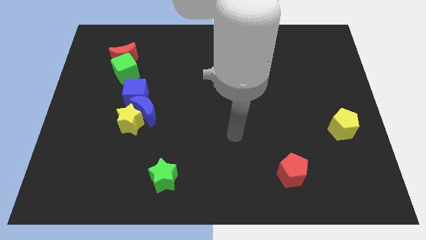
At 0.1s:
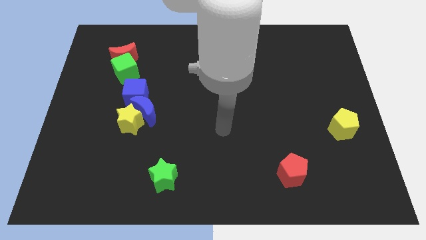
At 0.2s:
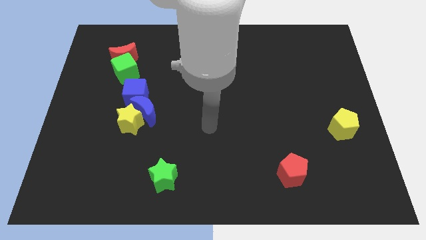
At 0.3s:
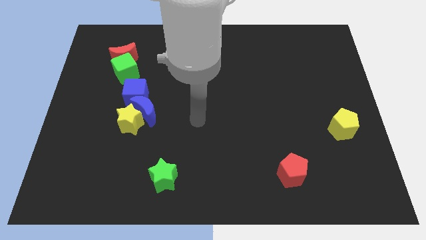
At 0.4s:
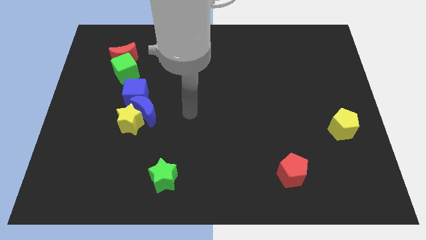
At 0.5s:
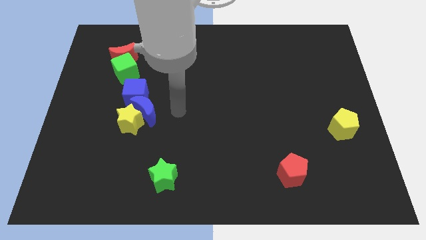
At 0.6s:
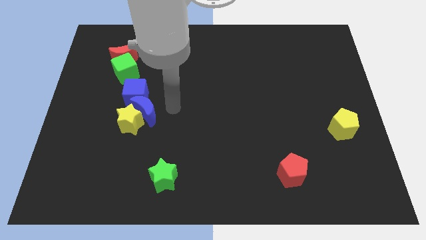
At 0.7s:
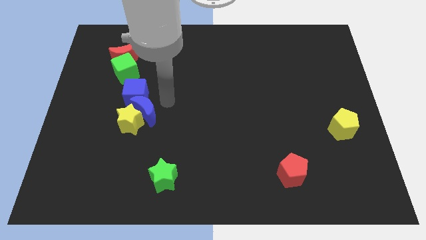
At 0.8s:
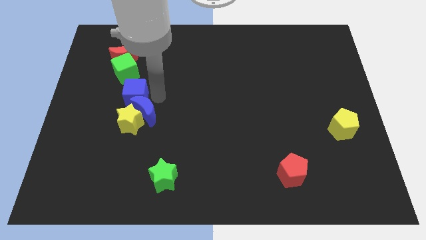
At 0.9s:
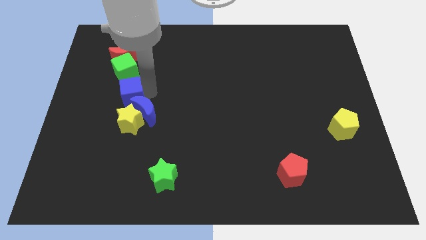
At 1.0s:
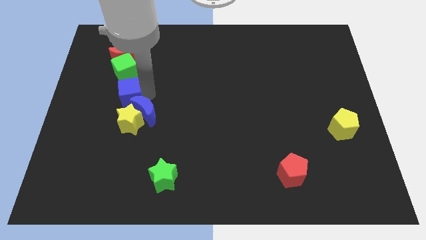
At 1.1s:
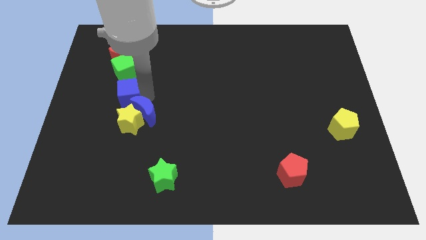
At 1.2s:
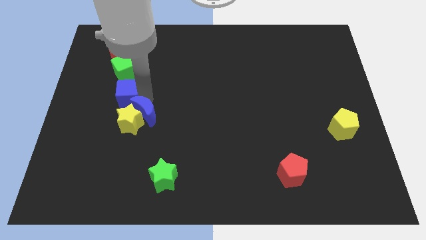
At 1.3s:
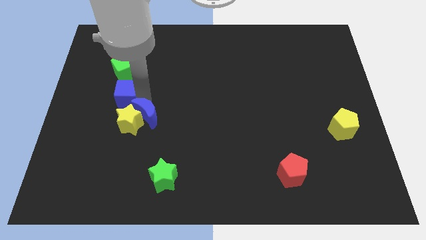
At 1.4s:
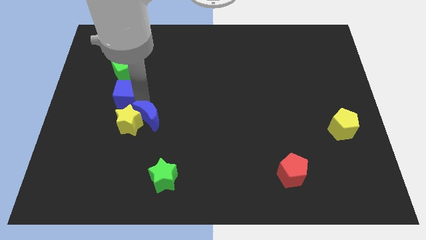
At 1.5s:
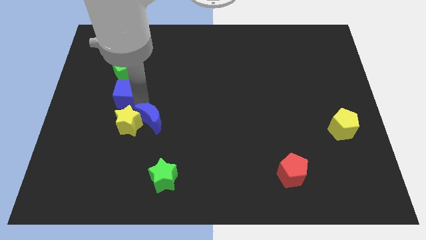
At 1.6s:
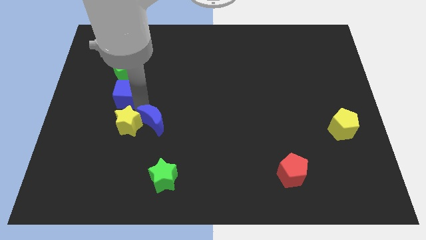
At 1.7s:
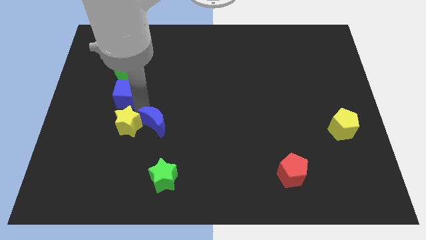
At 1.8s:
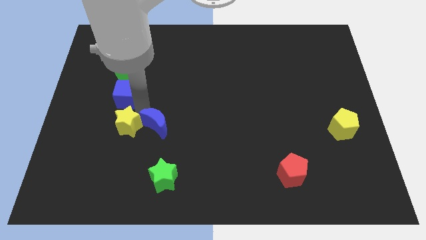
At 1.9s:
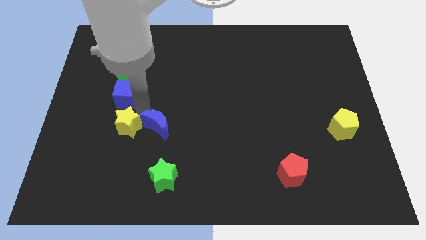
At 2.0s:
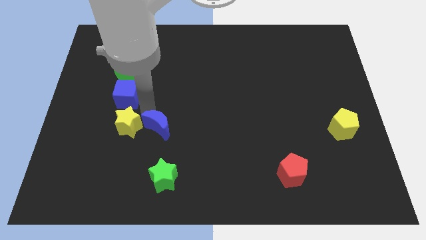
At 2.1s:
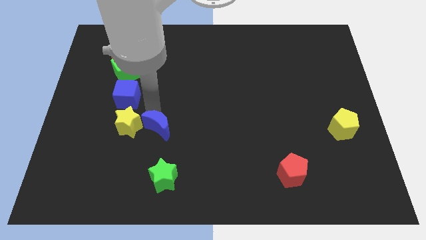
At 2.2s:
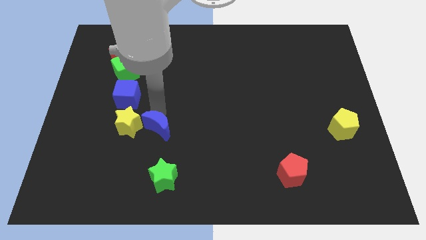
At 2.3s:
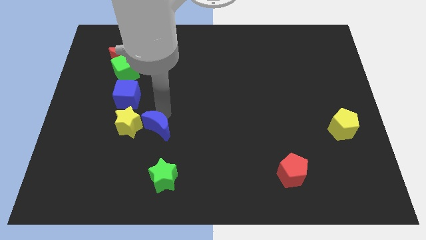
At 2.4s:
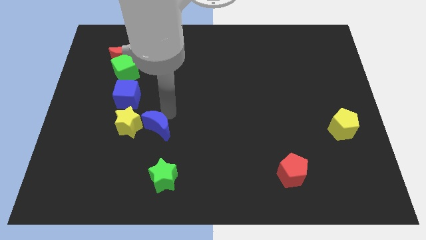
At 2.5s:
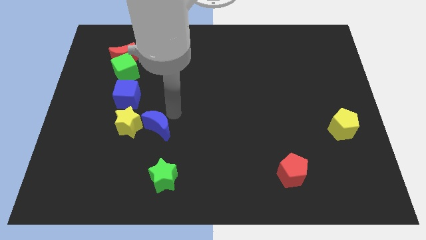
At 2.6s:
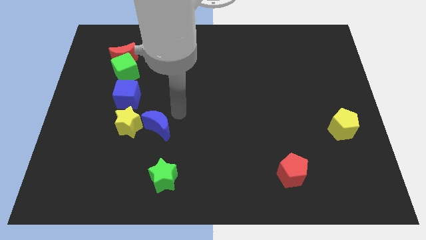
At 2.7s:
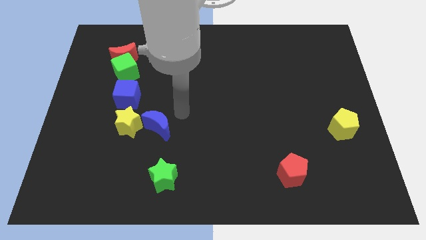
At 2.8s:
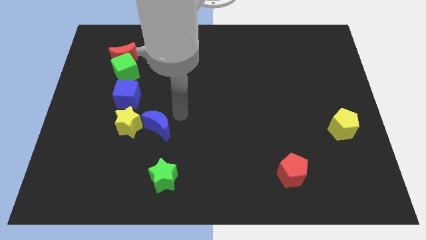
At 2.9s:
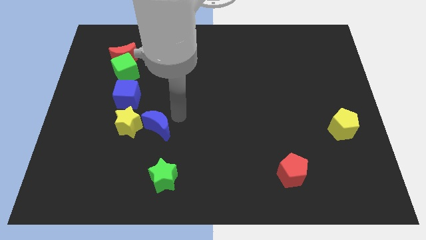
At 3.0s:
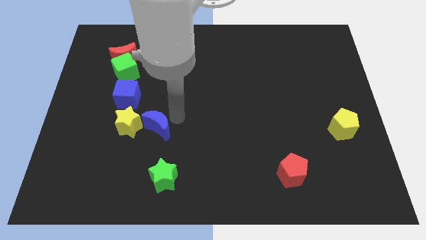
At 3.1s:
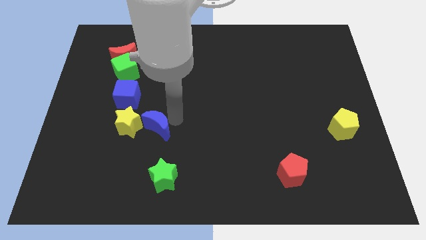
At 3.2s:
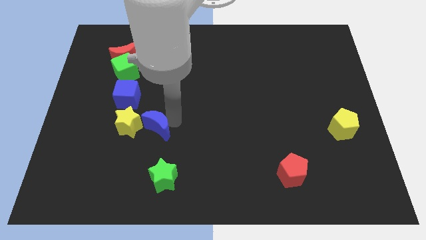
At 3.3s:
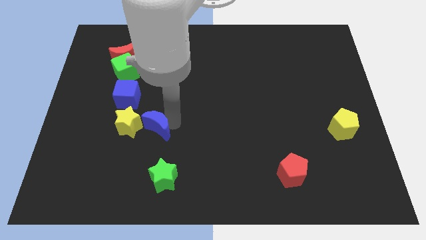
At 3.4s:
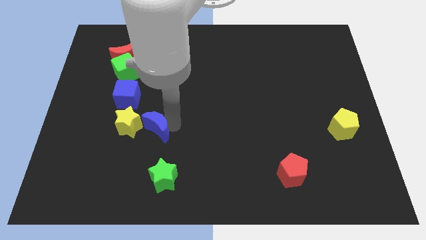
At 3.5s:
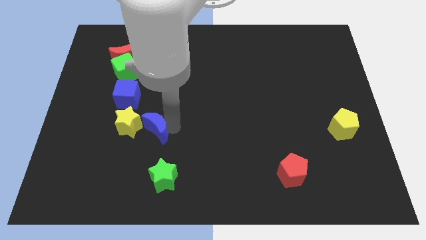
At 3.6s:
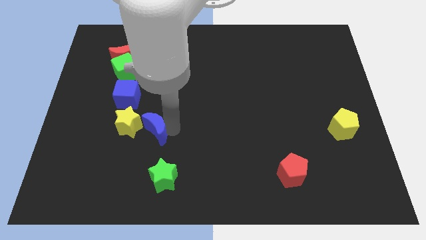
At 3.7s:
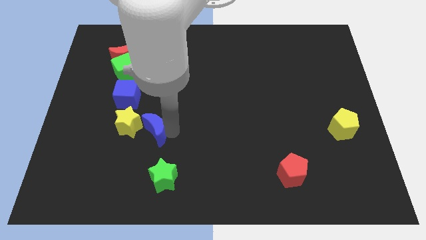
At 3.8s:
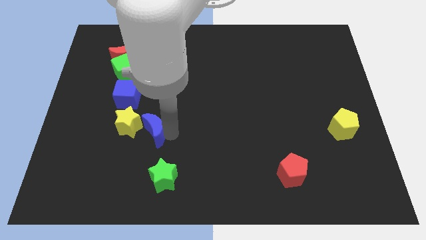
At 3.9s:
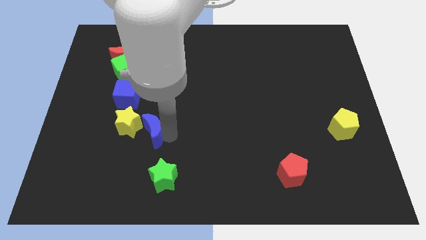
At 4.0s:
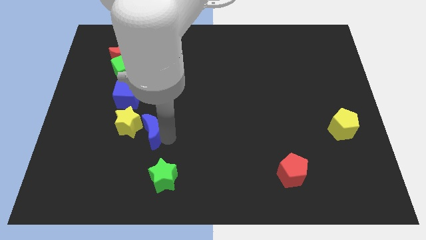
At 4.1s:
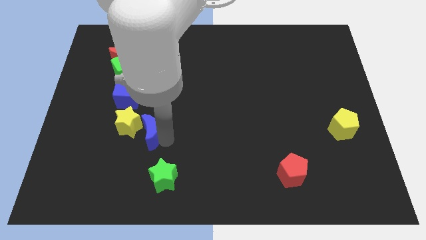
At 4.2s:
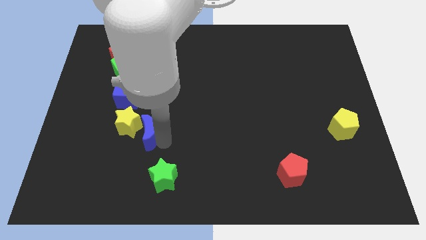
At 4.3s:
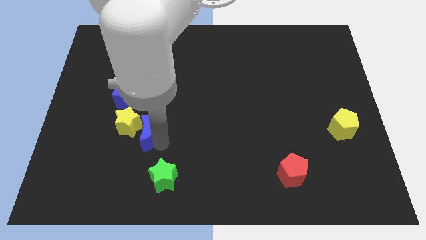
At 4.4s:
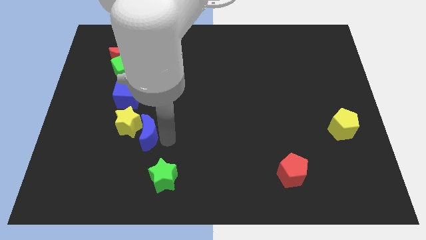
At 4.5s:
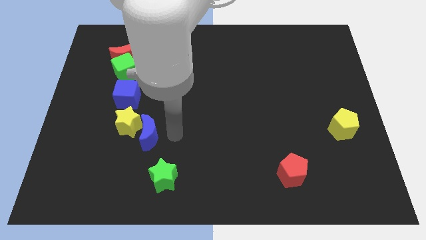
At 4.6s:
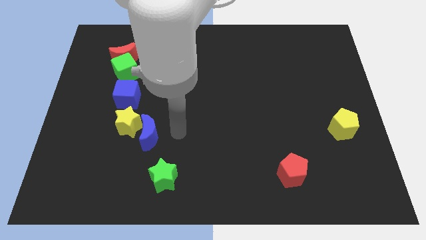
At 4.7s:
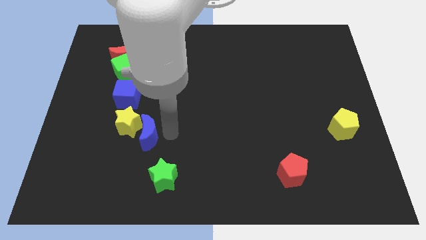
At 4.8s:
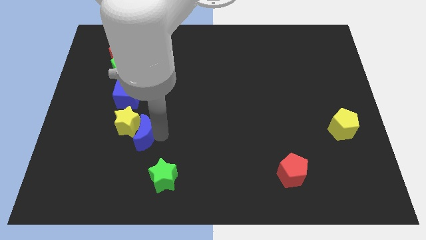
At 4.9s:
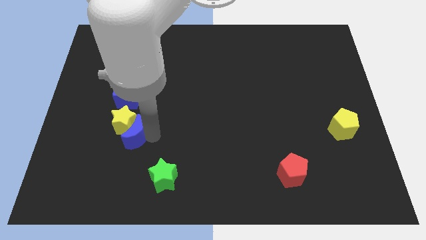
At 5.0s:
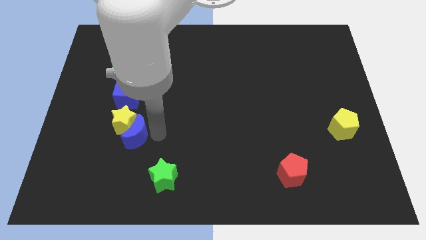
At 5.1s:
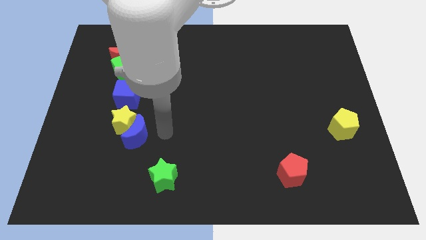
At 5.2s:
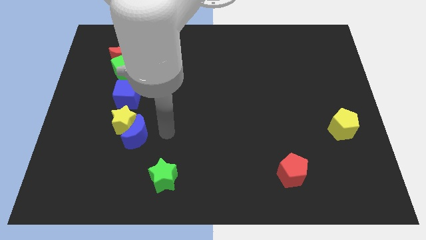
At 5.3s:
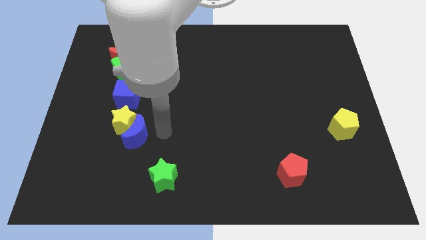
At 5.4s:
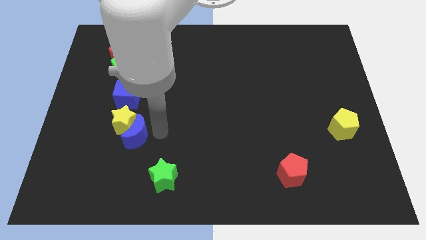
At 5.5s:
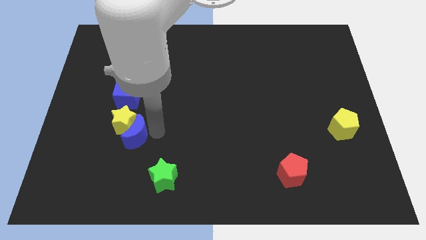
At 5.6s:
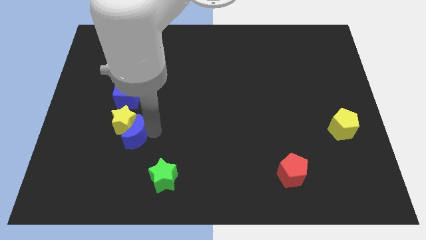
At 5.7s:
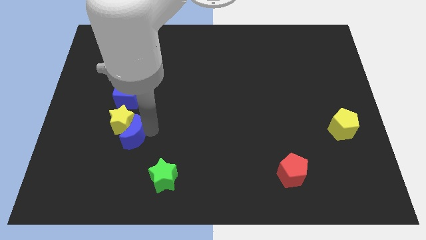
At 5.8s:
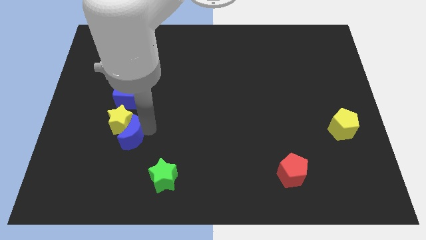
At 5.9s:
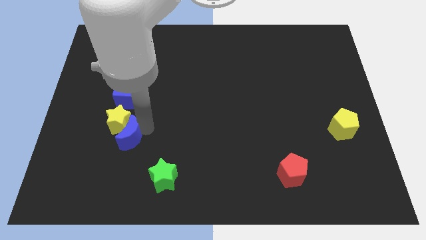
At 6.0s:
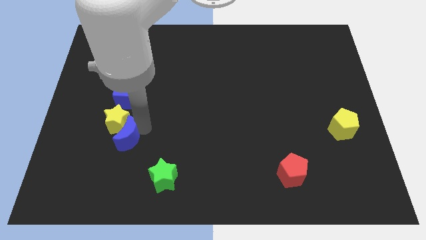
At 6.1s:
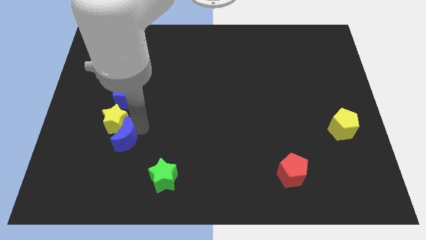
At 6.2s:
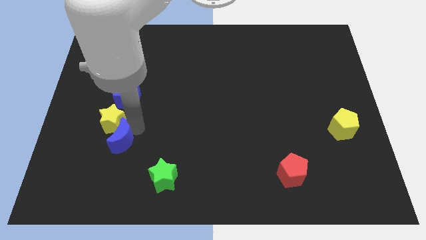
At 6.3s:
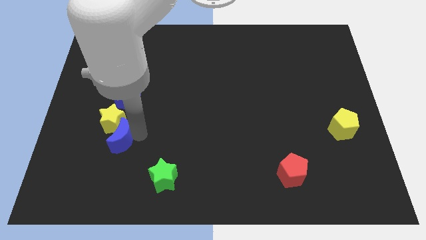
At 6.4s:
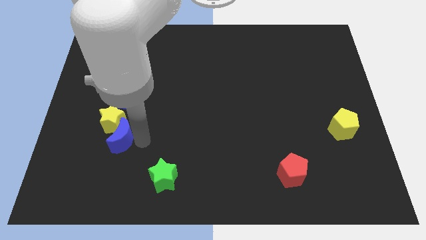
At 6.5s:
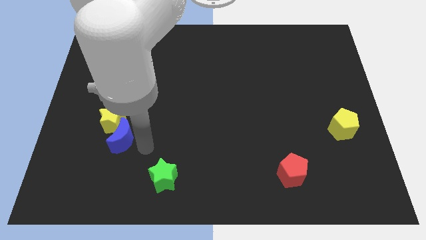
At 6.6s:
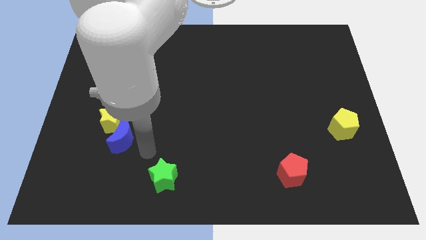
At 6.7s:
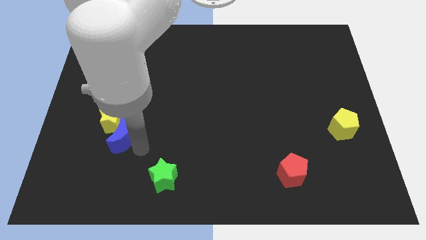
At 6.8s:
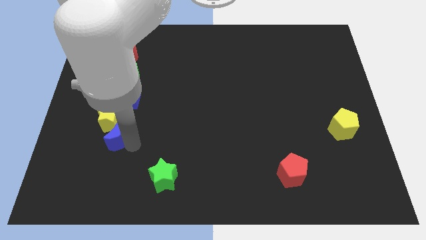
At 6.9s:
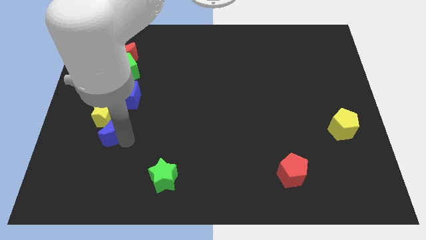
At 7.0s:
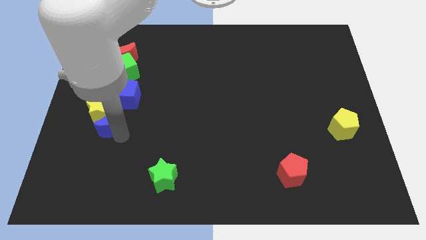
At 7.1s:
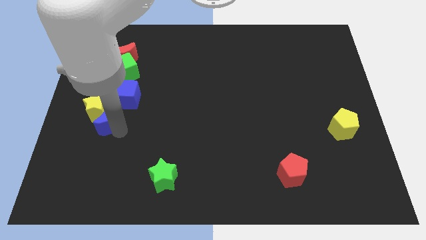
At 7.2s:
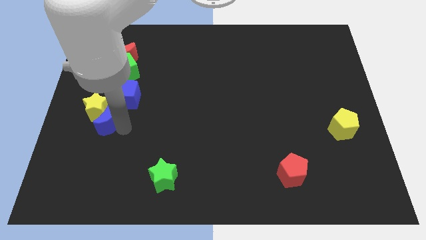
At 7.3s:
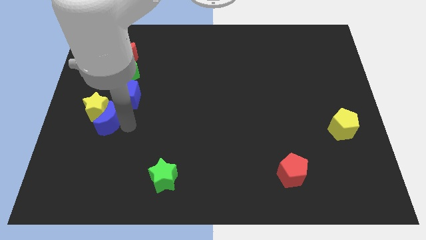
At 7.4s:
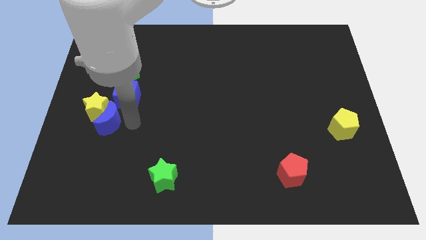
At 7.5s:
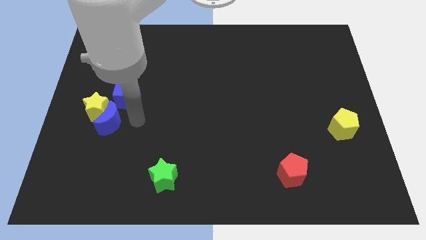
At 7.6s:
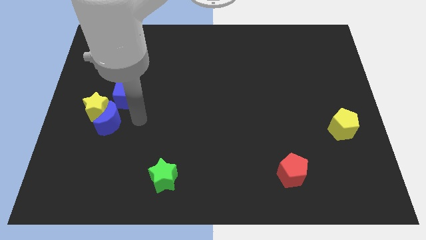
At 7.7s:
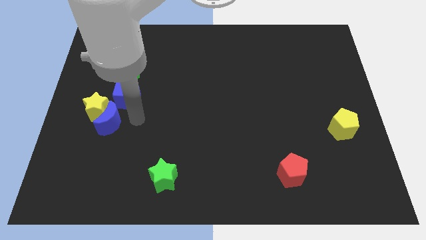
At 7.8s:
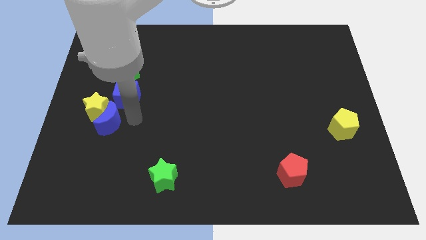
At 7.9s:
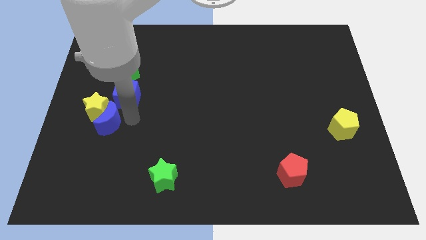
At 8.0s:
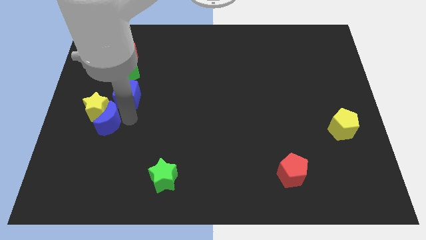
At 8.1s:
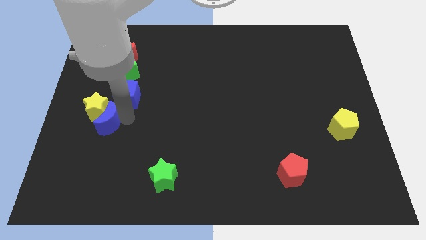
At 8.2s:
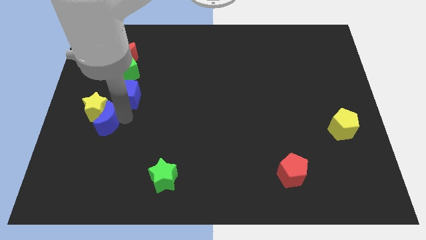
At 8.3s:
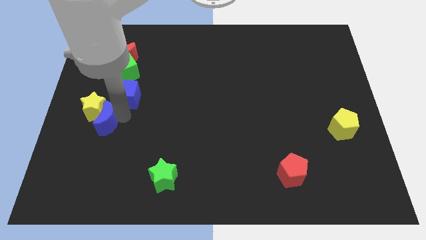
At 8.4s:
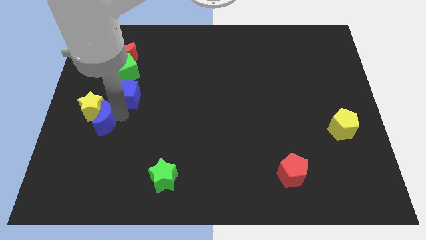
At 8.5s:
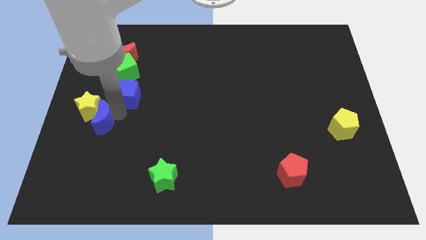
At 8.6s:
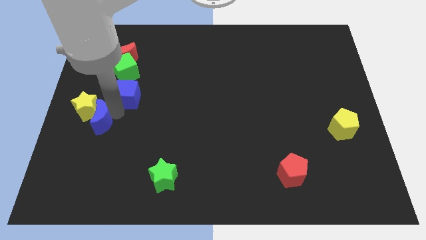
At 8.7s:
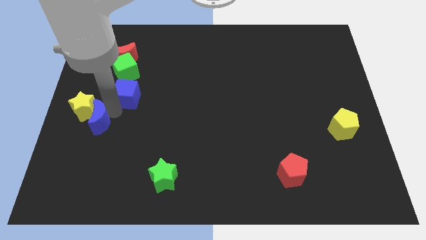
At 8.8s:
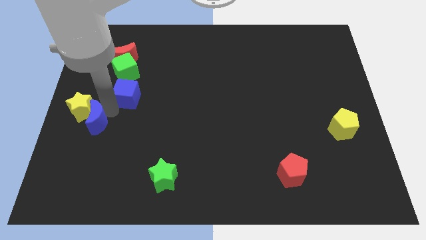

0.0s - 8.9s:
move the blue moon to the left side
